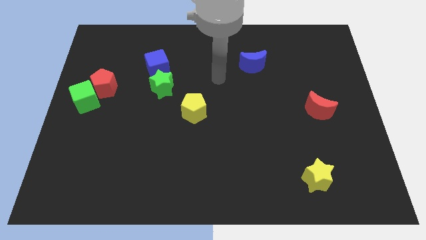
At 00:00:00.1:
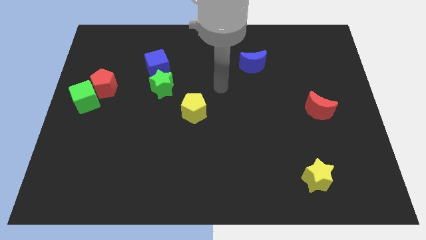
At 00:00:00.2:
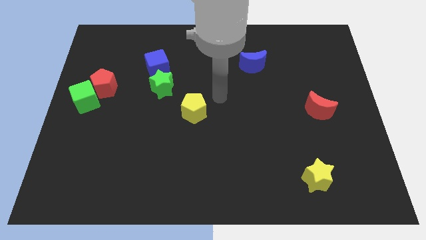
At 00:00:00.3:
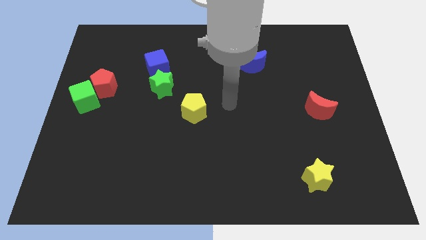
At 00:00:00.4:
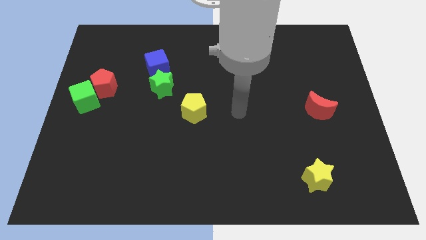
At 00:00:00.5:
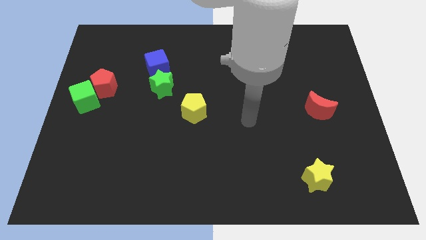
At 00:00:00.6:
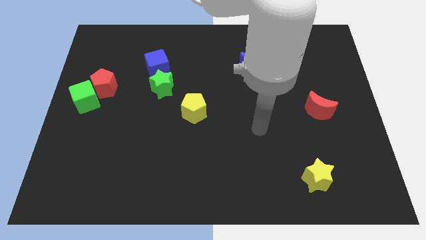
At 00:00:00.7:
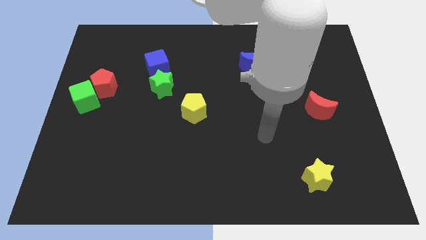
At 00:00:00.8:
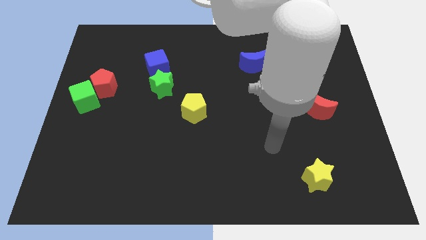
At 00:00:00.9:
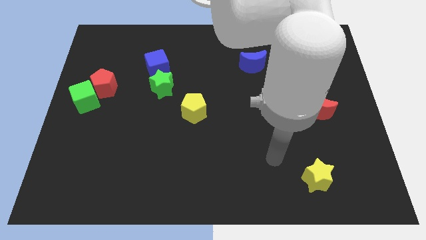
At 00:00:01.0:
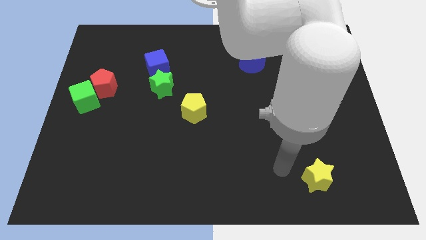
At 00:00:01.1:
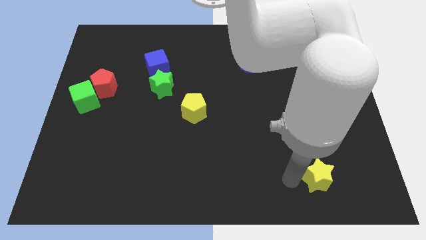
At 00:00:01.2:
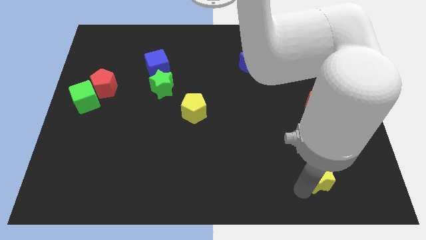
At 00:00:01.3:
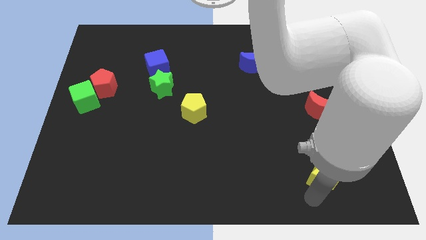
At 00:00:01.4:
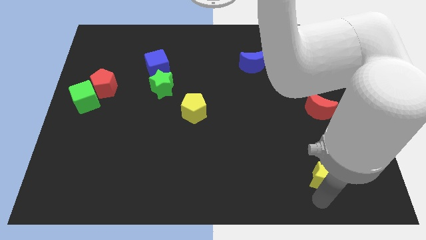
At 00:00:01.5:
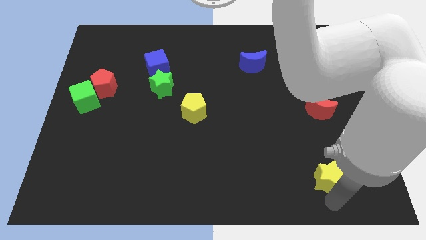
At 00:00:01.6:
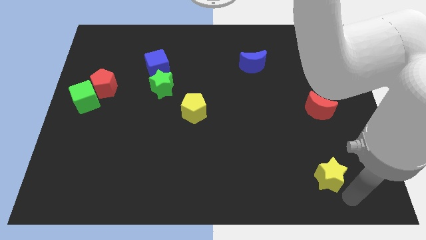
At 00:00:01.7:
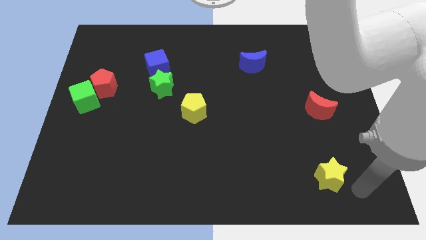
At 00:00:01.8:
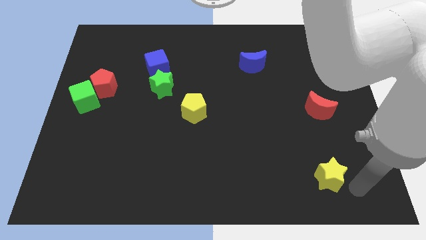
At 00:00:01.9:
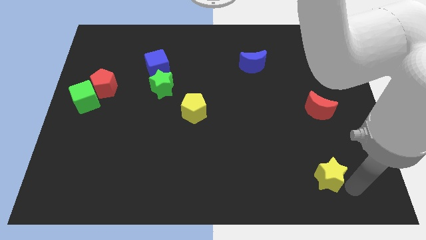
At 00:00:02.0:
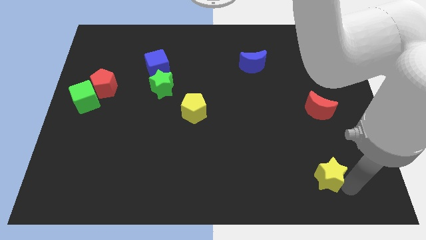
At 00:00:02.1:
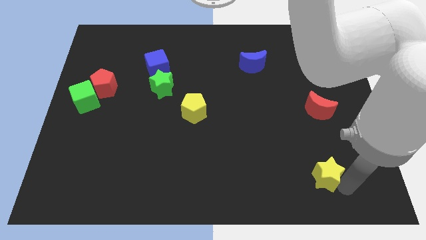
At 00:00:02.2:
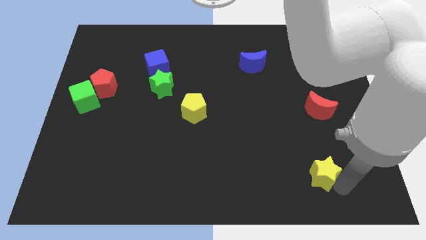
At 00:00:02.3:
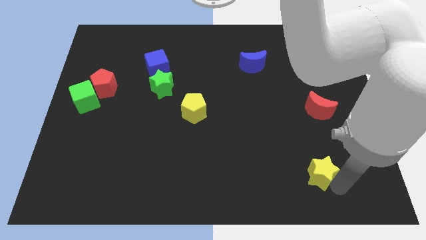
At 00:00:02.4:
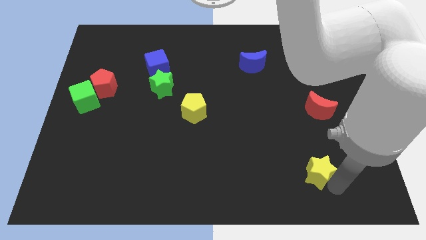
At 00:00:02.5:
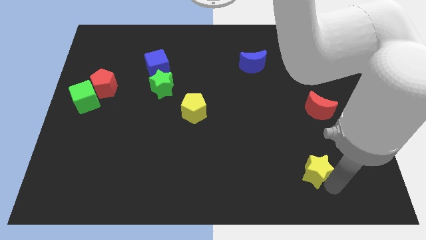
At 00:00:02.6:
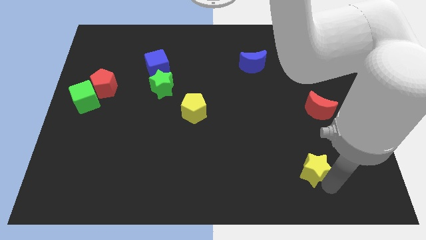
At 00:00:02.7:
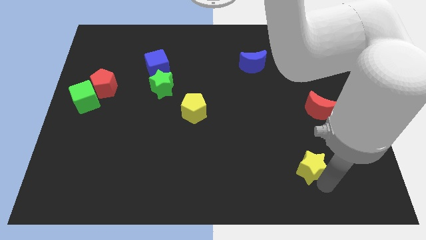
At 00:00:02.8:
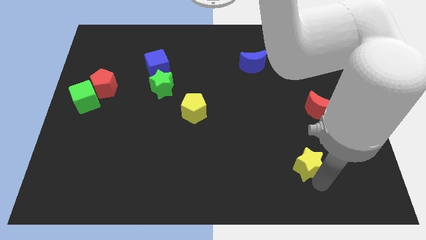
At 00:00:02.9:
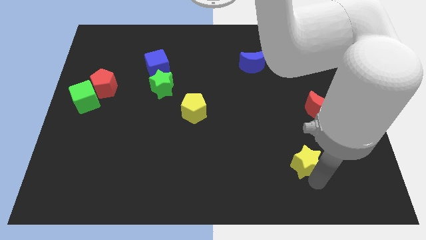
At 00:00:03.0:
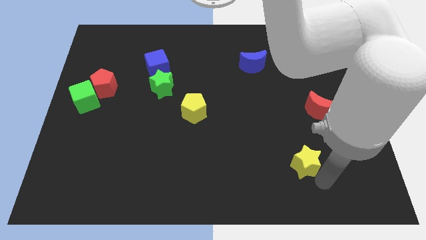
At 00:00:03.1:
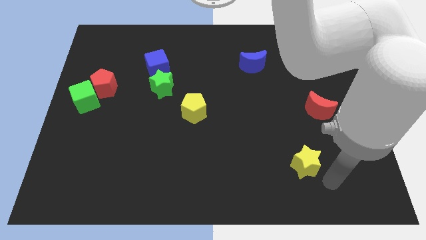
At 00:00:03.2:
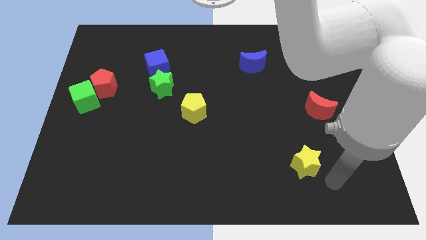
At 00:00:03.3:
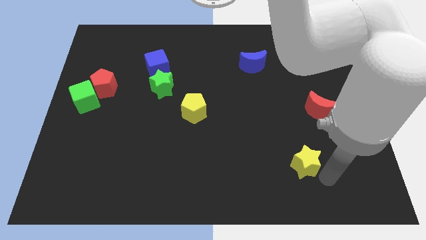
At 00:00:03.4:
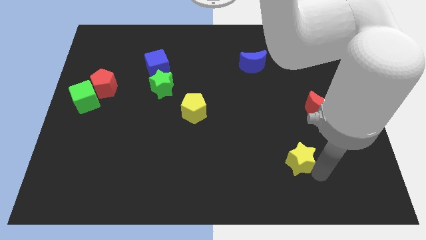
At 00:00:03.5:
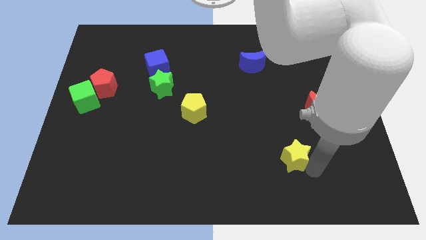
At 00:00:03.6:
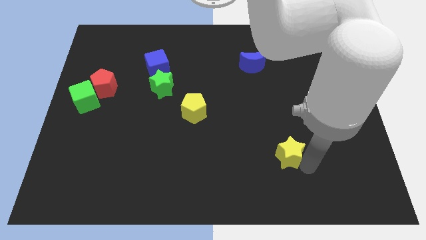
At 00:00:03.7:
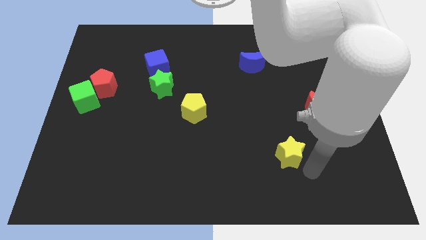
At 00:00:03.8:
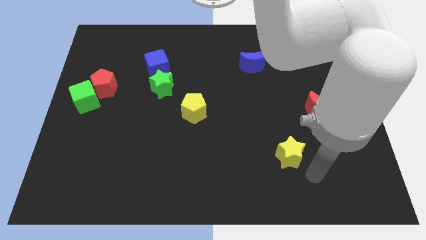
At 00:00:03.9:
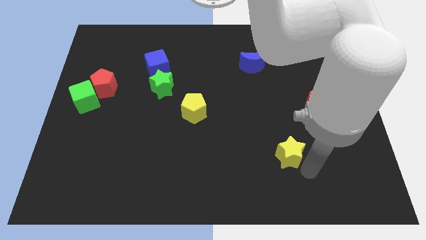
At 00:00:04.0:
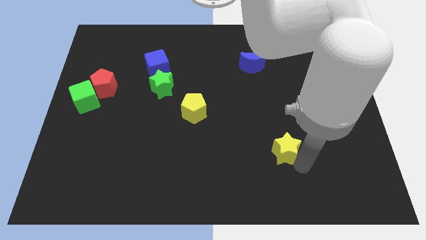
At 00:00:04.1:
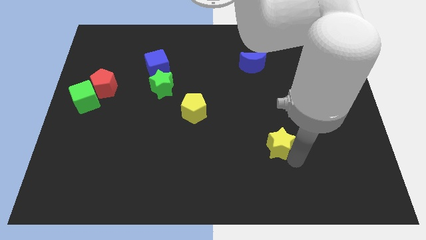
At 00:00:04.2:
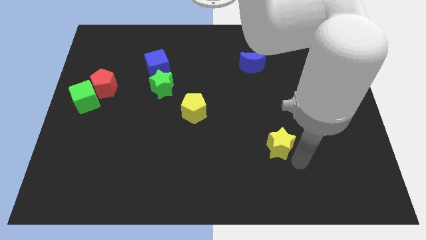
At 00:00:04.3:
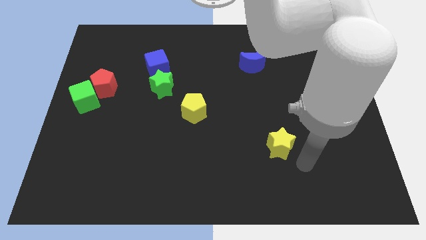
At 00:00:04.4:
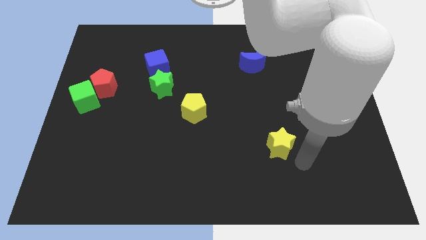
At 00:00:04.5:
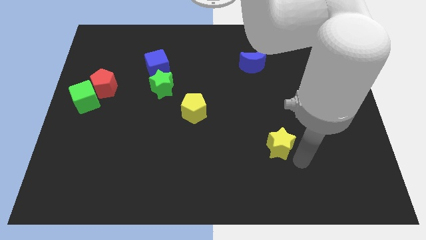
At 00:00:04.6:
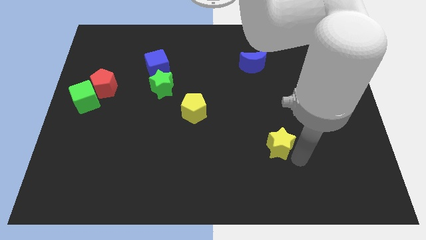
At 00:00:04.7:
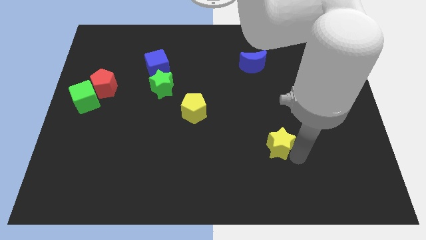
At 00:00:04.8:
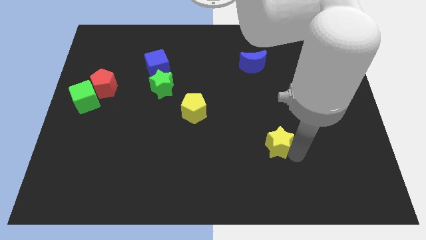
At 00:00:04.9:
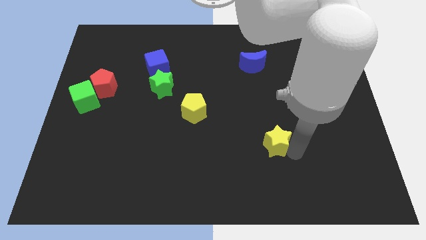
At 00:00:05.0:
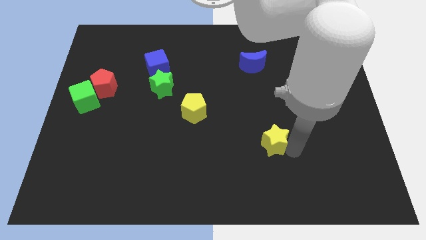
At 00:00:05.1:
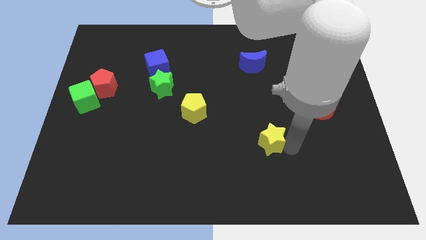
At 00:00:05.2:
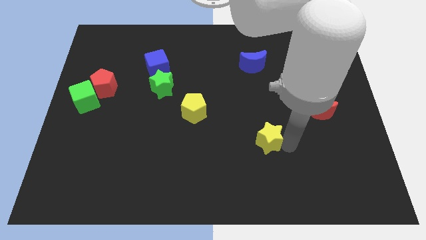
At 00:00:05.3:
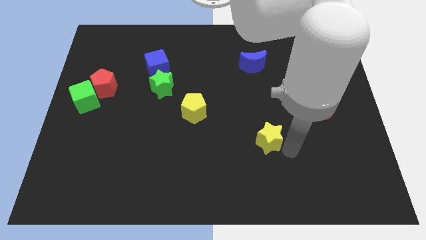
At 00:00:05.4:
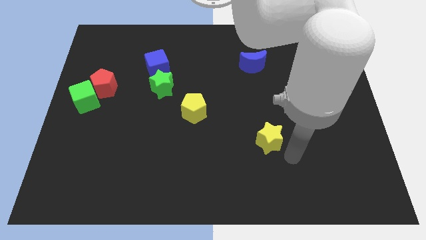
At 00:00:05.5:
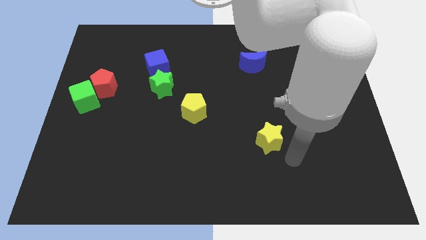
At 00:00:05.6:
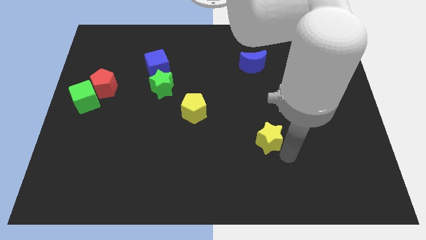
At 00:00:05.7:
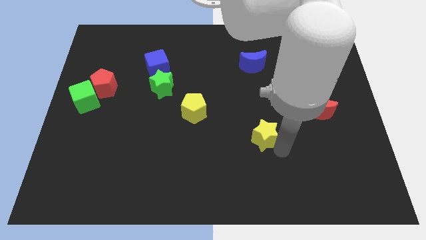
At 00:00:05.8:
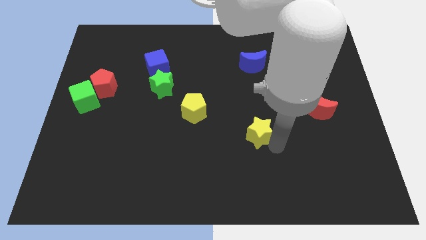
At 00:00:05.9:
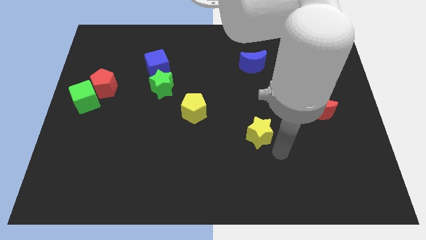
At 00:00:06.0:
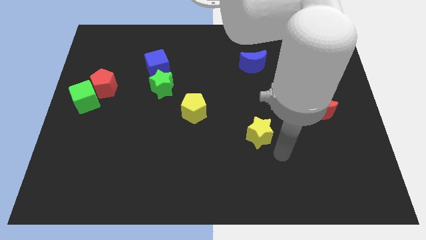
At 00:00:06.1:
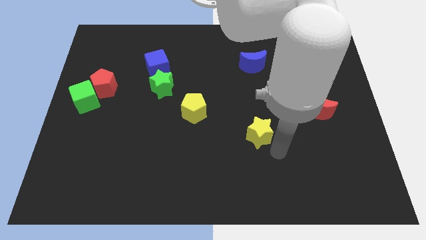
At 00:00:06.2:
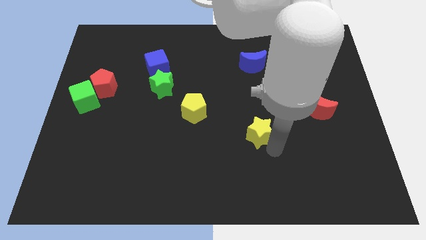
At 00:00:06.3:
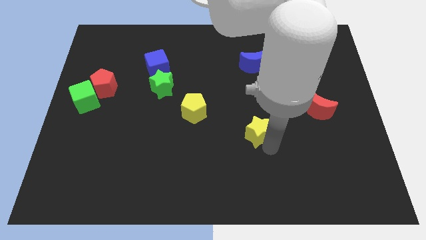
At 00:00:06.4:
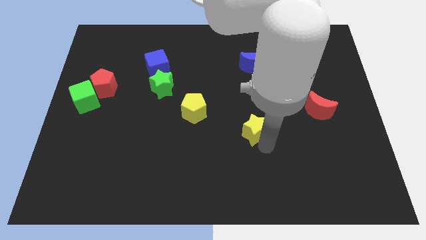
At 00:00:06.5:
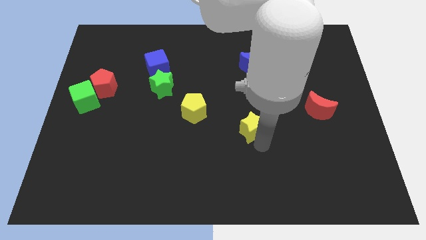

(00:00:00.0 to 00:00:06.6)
slide the yellow star to the middle
